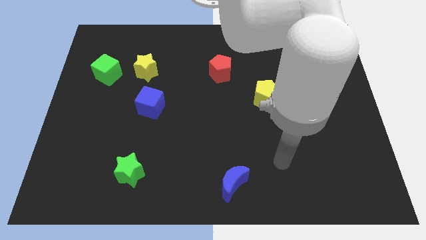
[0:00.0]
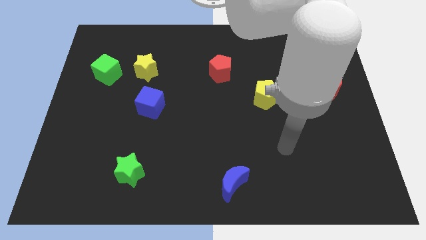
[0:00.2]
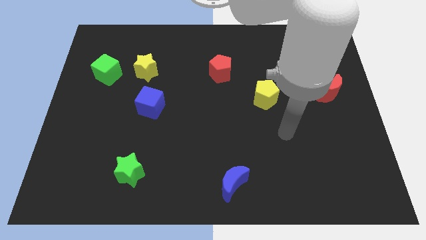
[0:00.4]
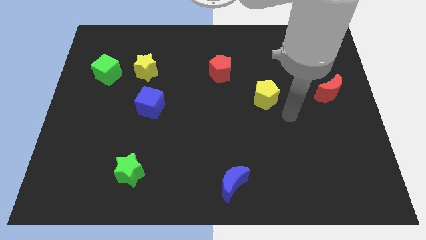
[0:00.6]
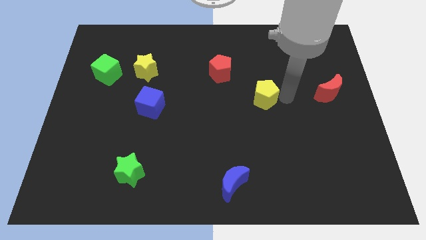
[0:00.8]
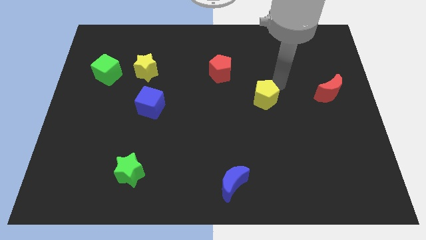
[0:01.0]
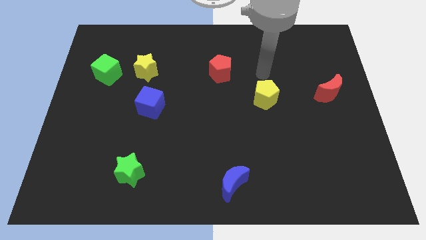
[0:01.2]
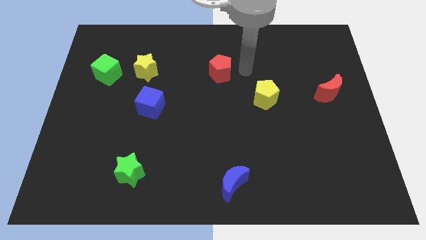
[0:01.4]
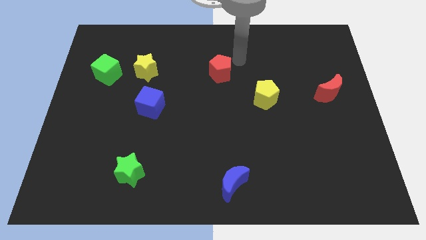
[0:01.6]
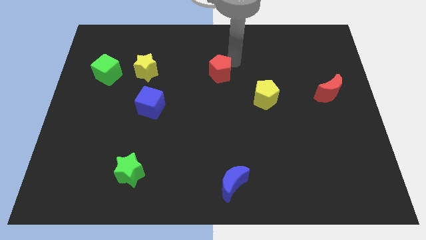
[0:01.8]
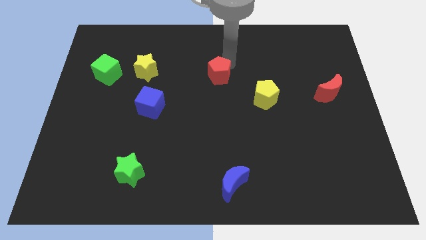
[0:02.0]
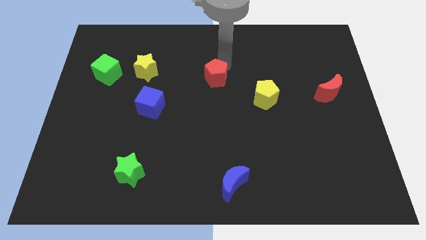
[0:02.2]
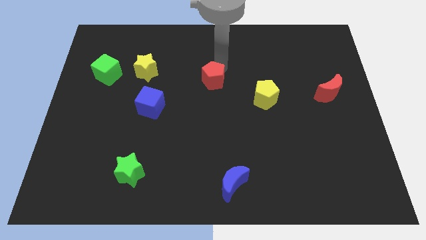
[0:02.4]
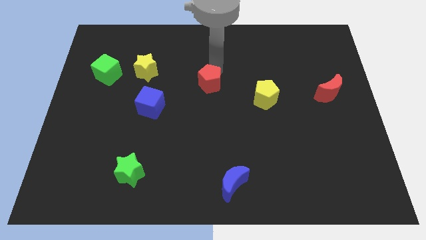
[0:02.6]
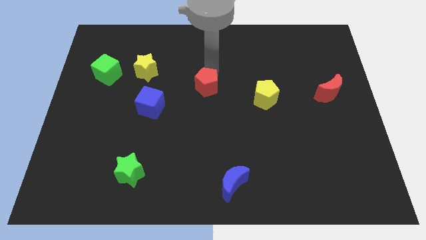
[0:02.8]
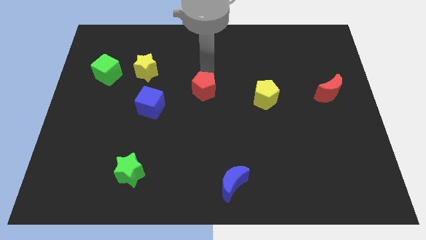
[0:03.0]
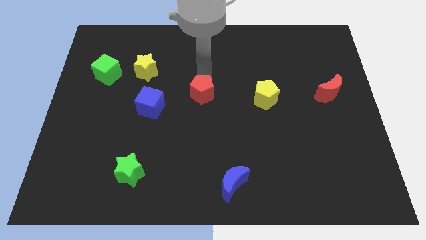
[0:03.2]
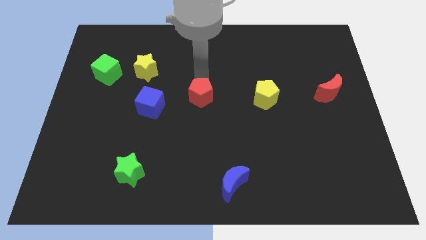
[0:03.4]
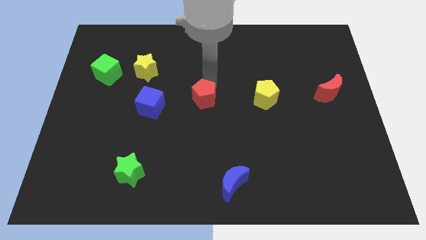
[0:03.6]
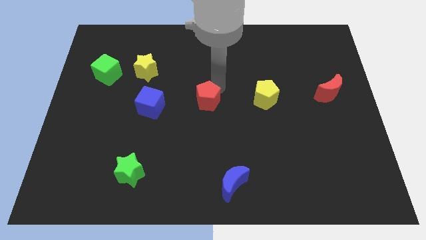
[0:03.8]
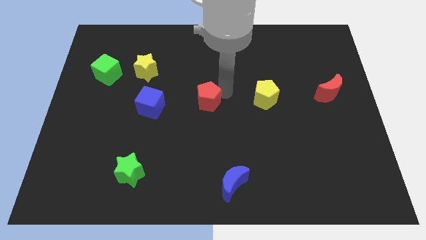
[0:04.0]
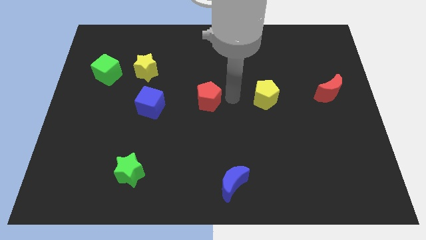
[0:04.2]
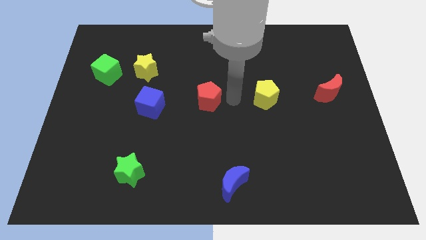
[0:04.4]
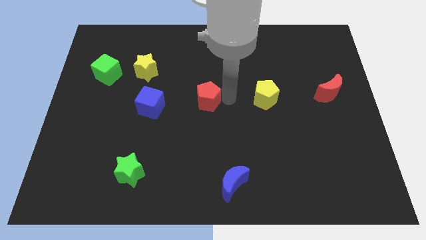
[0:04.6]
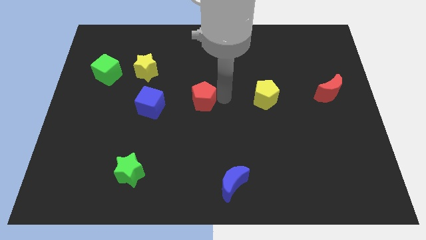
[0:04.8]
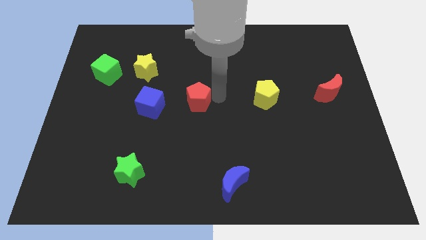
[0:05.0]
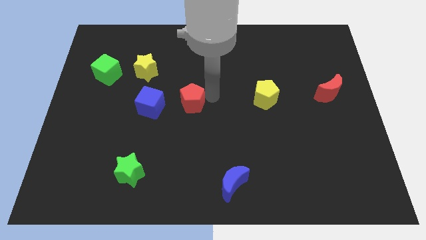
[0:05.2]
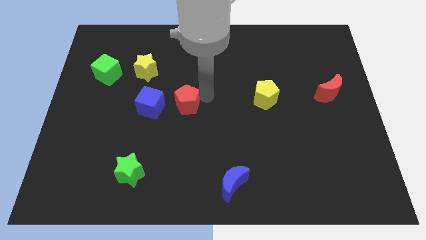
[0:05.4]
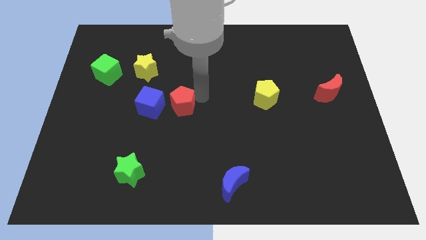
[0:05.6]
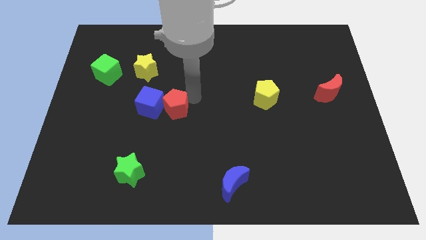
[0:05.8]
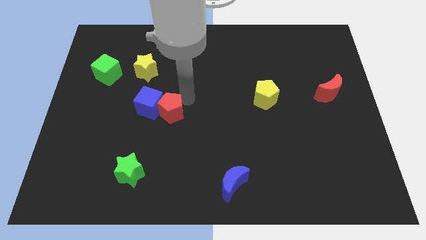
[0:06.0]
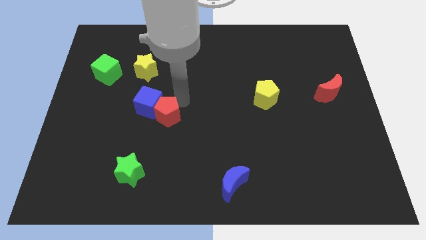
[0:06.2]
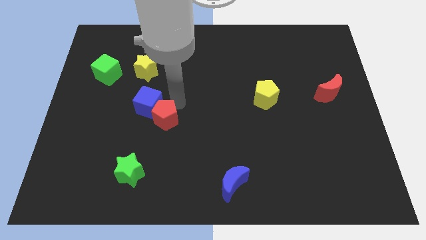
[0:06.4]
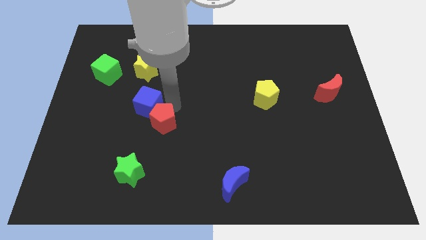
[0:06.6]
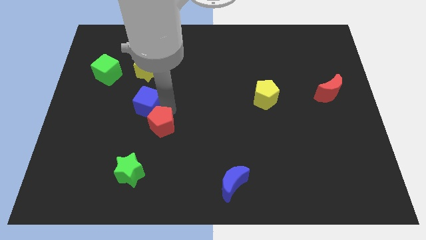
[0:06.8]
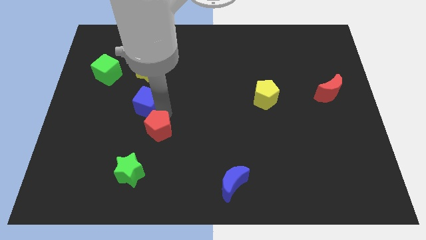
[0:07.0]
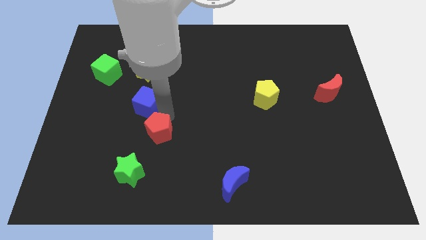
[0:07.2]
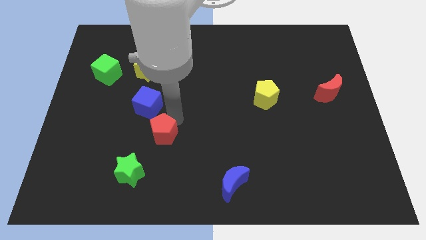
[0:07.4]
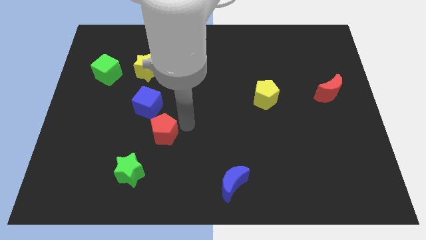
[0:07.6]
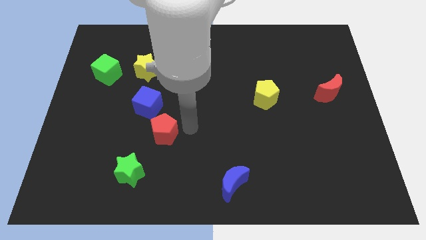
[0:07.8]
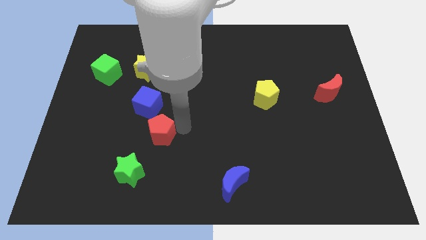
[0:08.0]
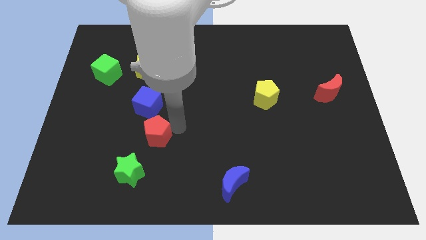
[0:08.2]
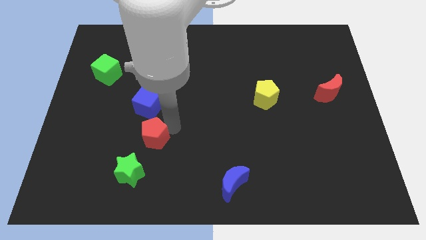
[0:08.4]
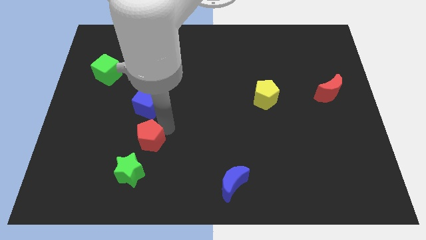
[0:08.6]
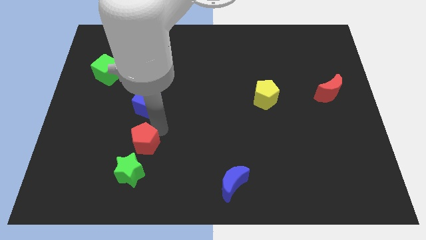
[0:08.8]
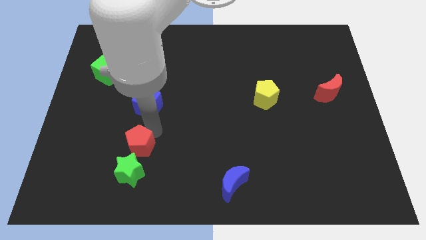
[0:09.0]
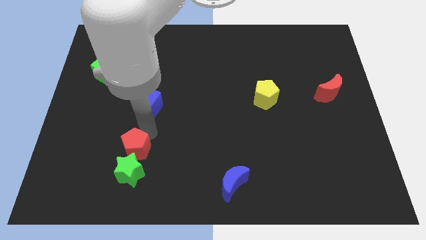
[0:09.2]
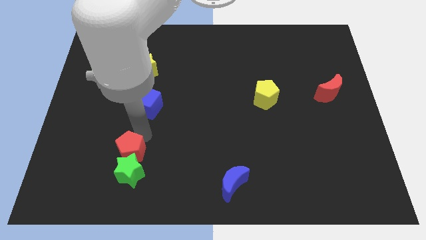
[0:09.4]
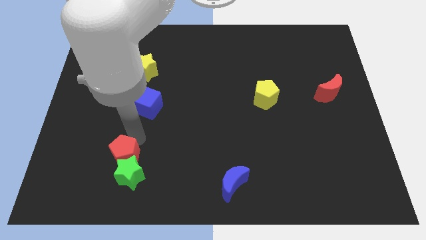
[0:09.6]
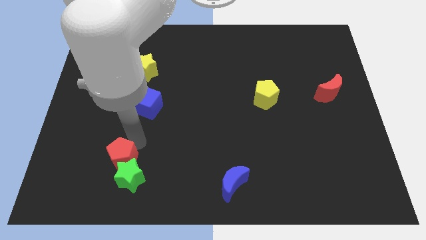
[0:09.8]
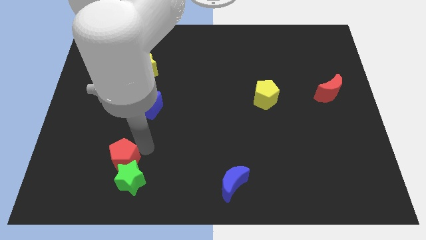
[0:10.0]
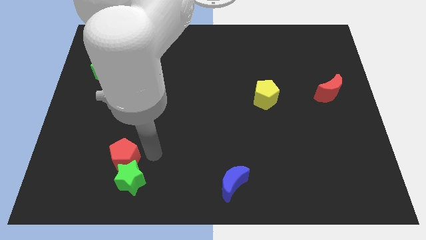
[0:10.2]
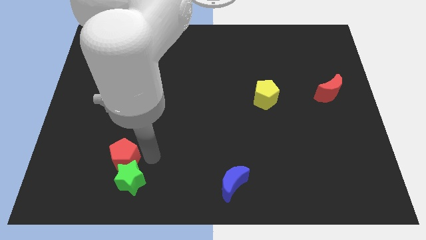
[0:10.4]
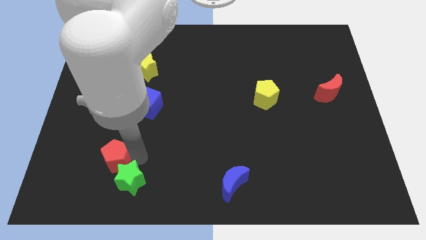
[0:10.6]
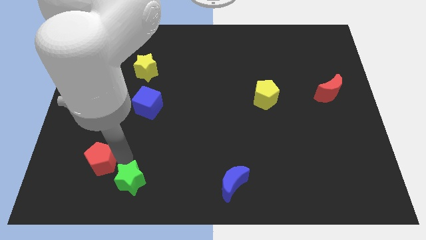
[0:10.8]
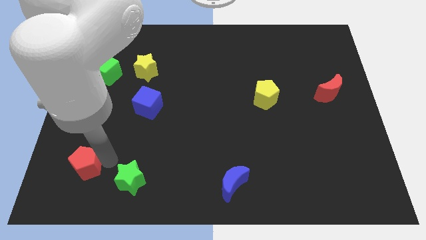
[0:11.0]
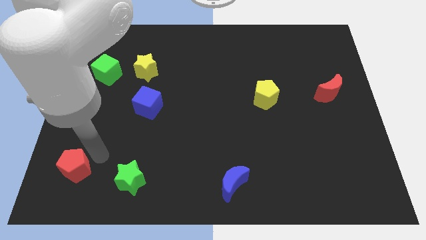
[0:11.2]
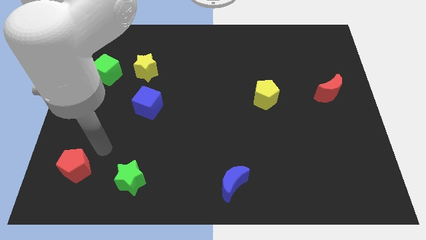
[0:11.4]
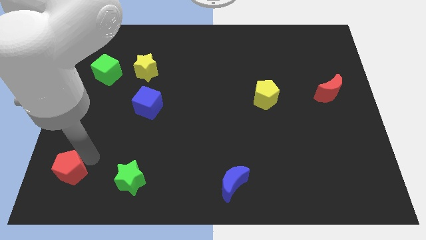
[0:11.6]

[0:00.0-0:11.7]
slide the red pentagon to the bottom left
